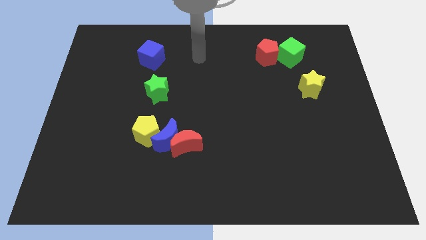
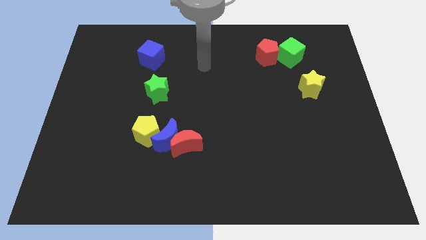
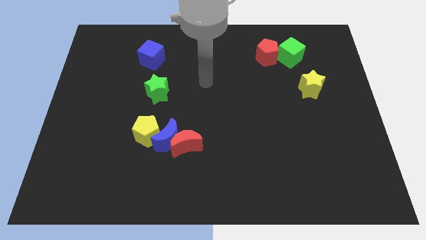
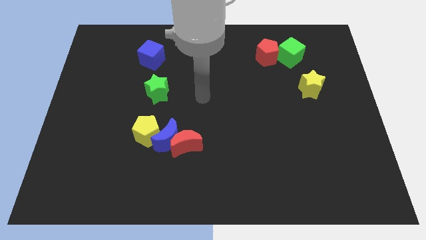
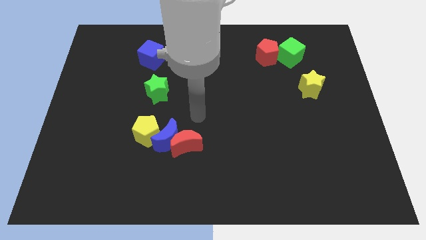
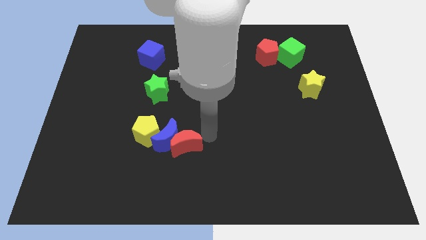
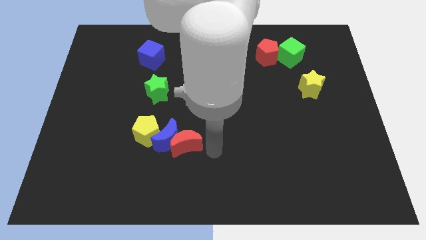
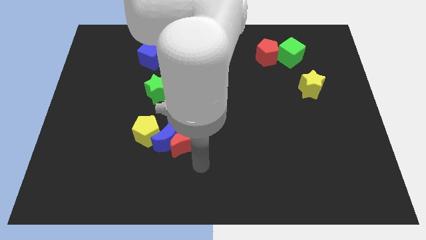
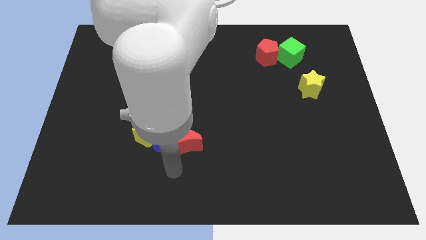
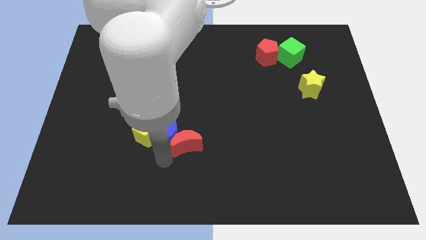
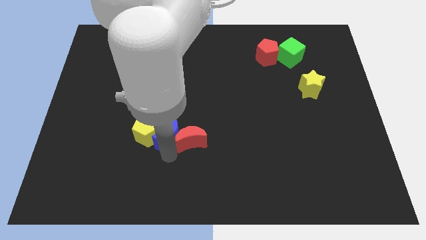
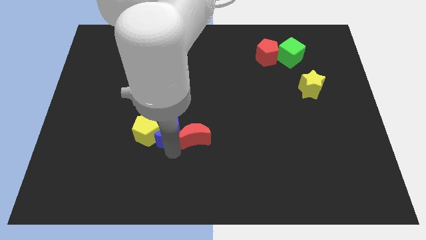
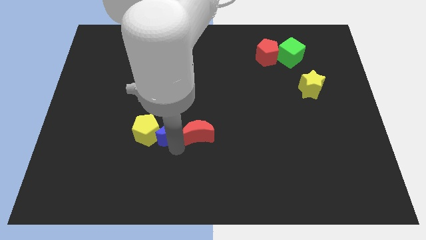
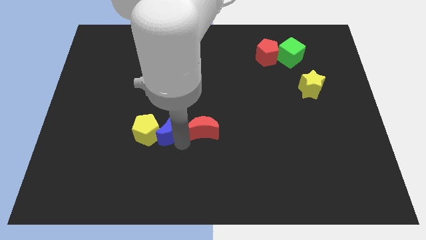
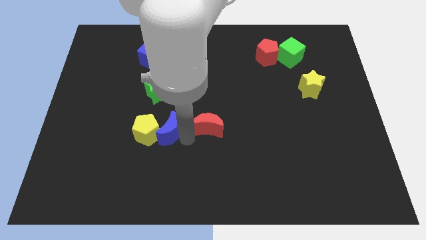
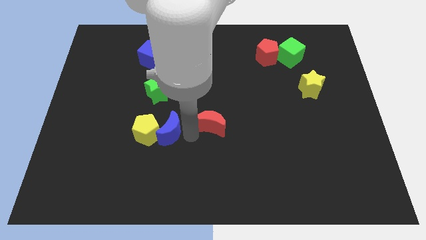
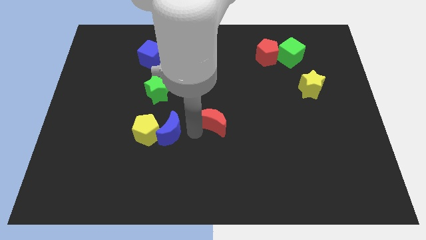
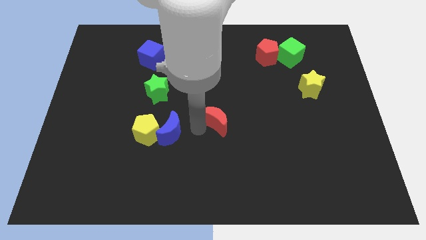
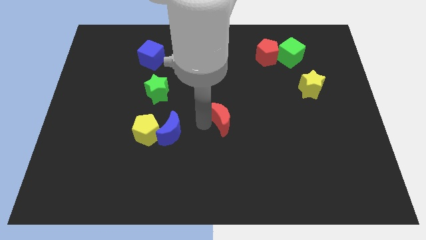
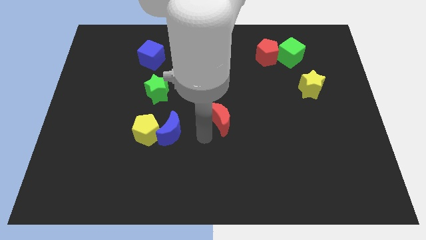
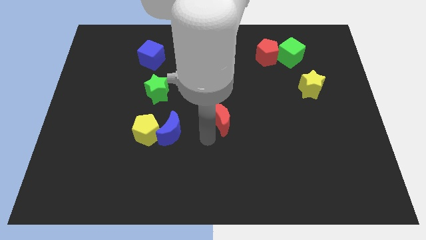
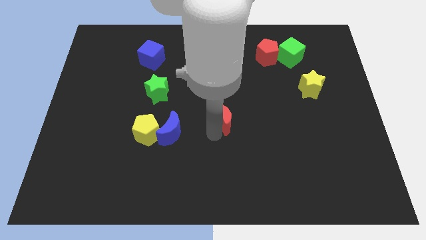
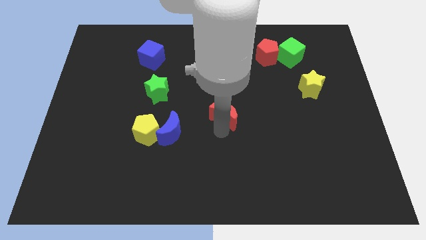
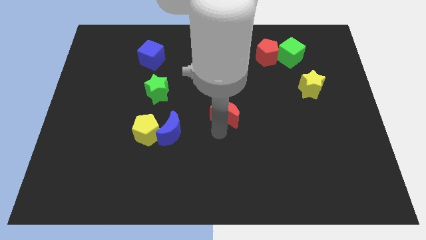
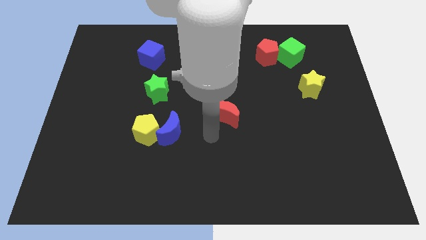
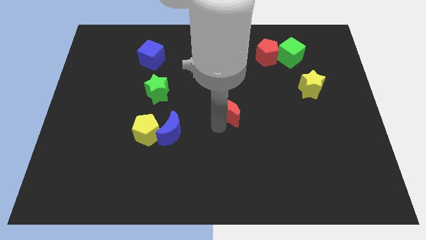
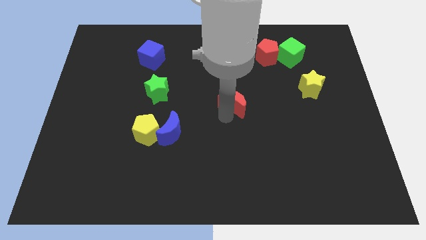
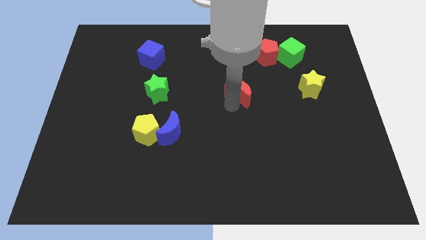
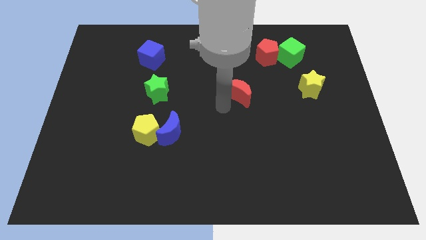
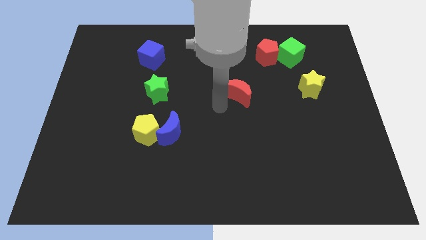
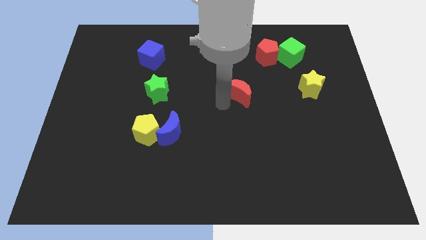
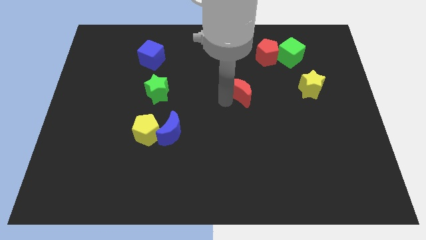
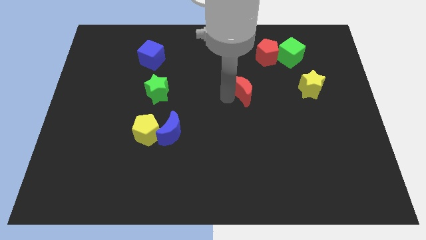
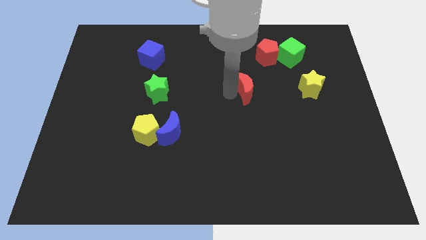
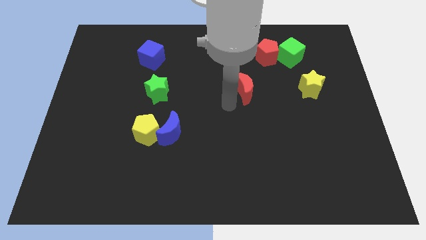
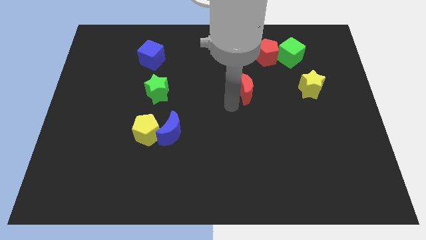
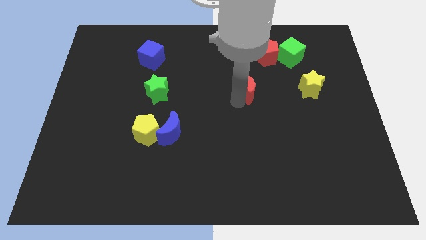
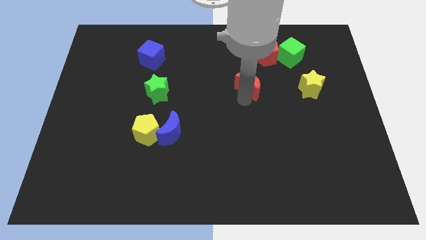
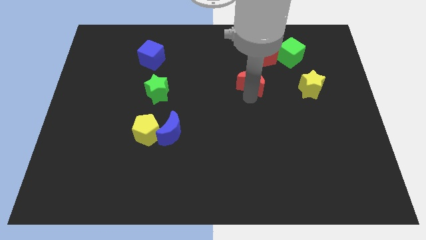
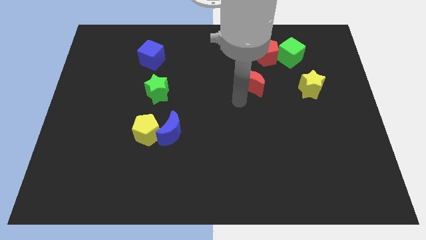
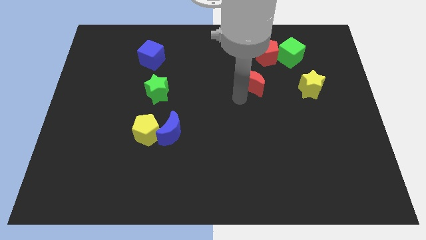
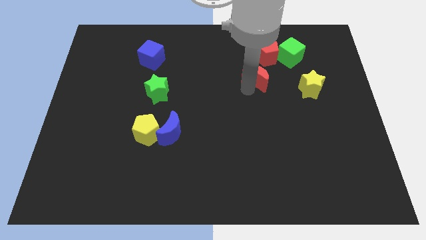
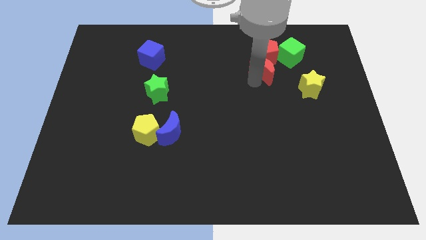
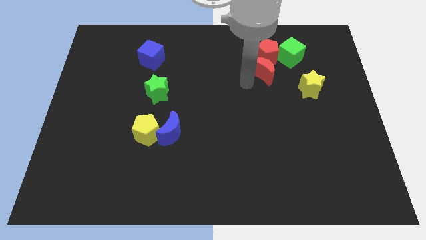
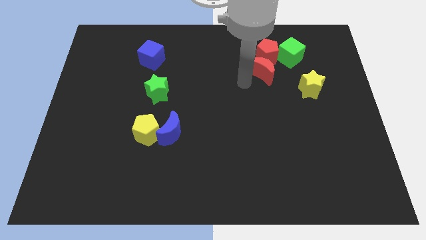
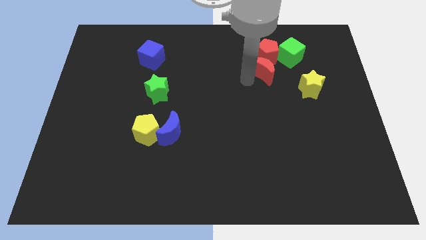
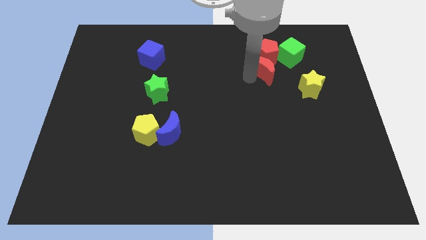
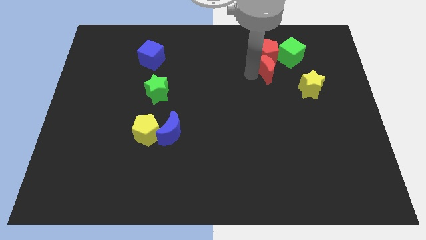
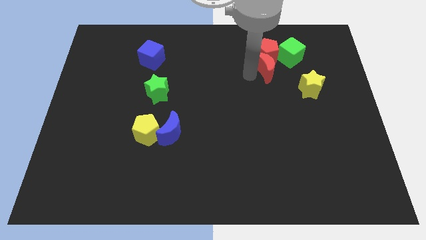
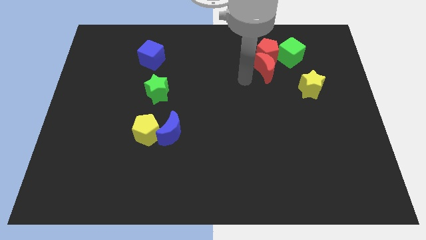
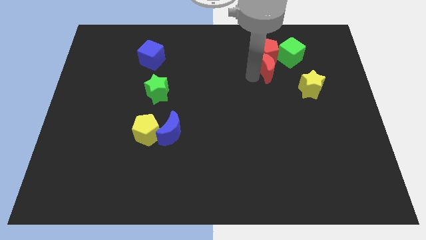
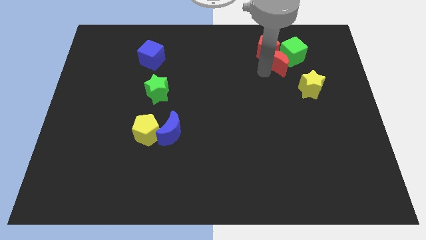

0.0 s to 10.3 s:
slide the red moon to the green cube

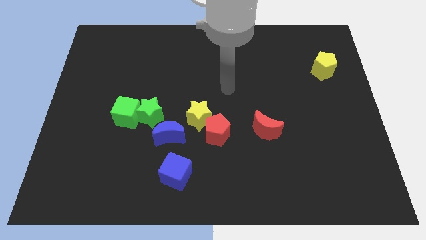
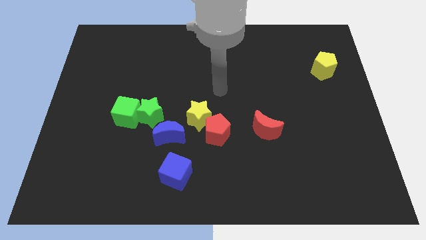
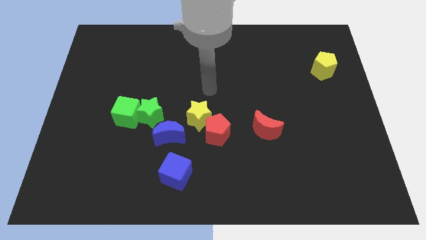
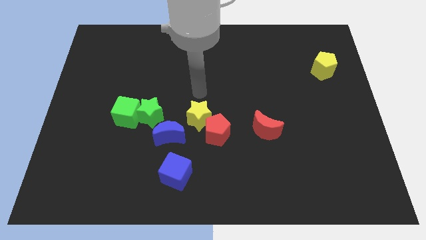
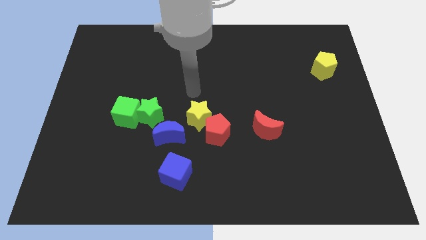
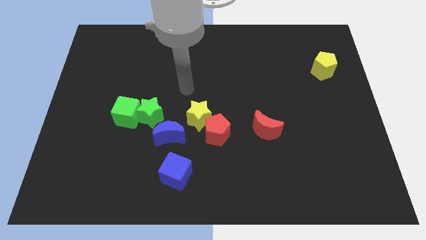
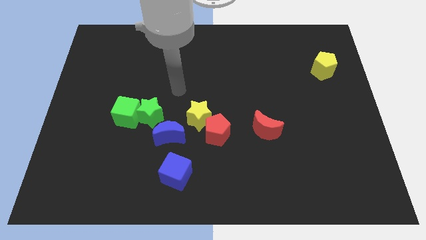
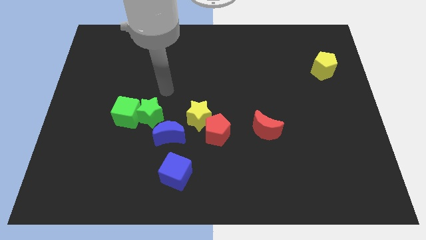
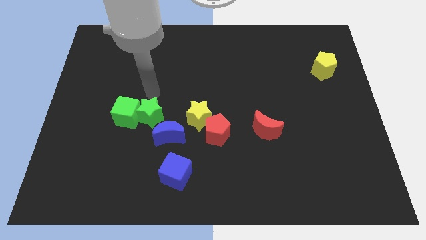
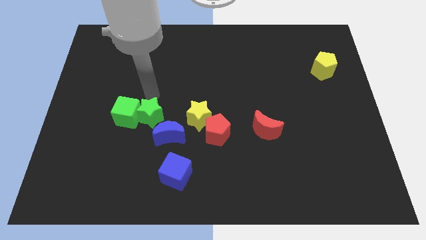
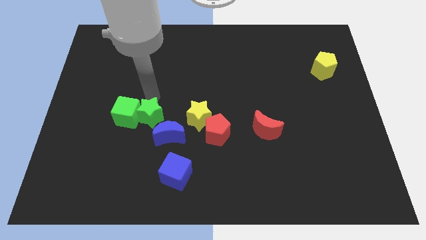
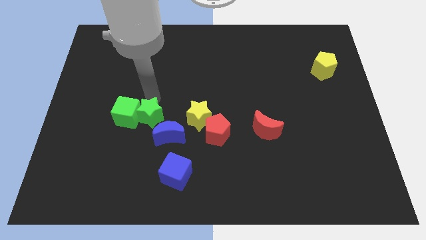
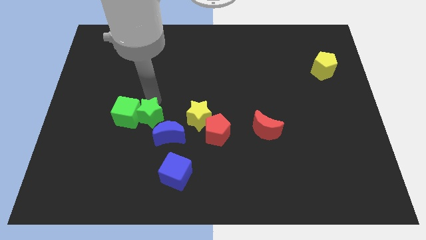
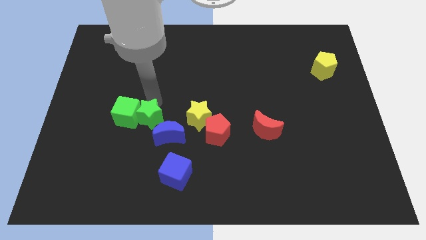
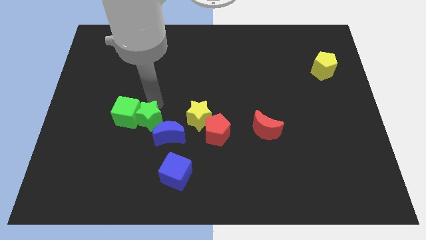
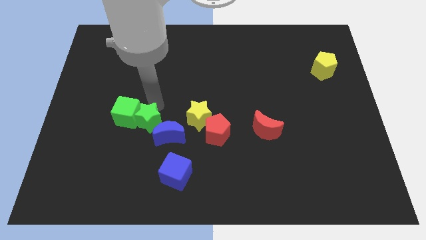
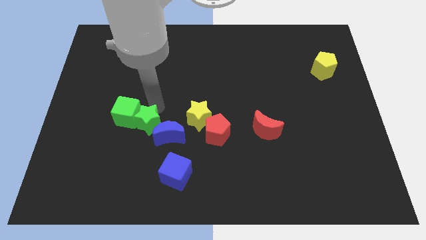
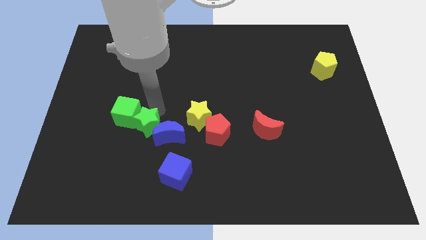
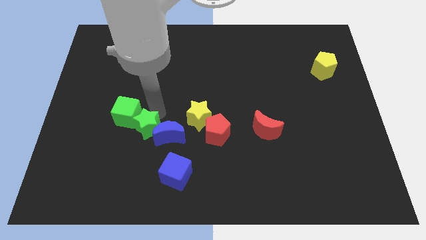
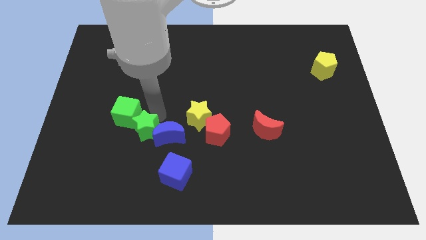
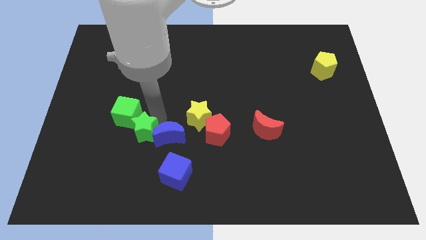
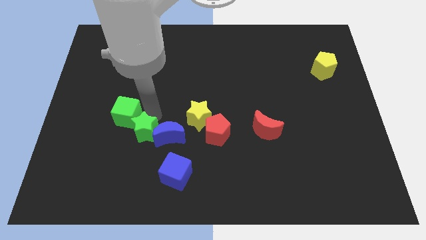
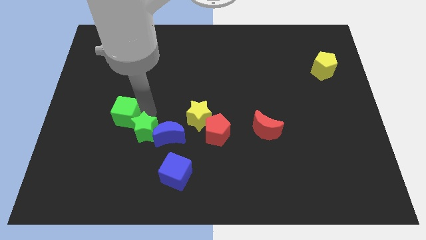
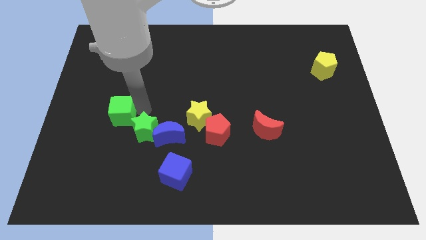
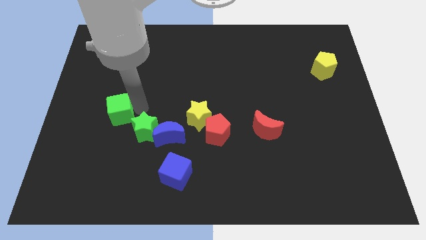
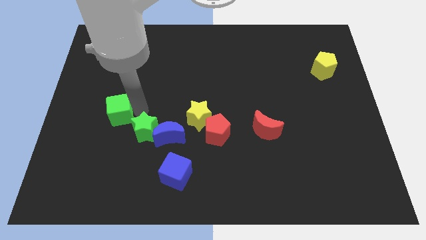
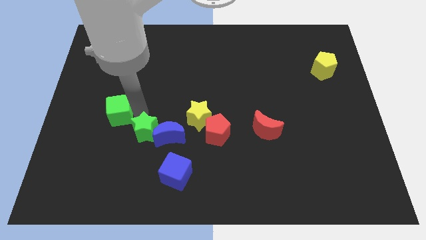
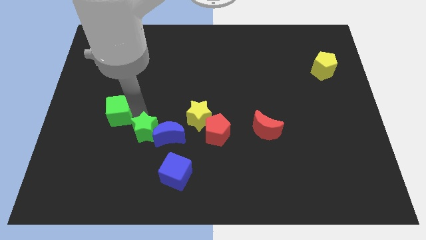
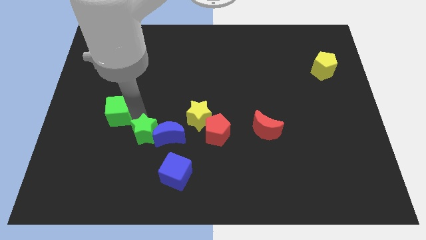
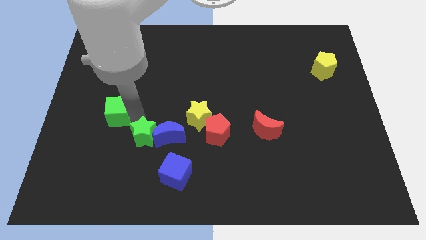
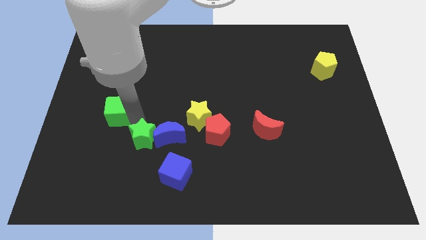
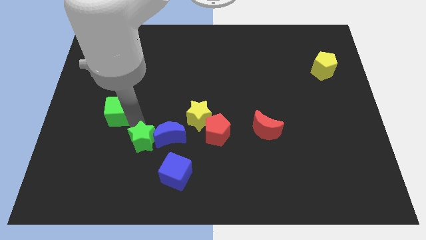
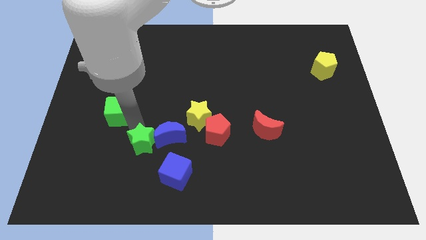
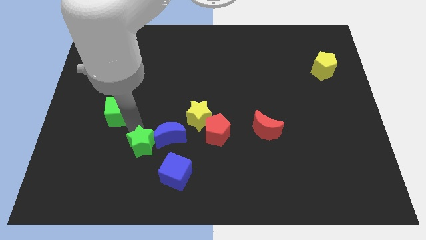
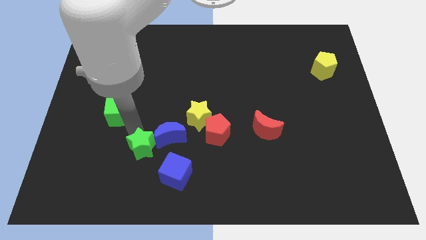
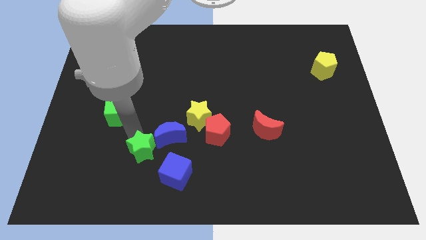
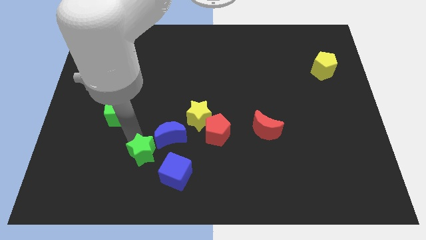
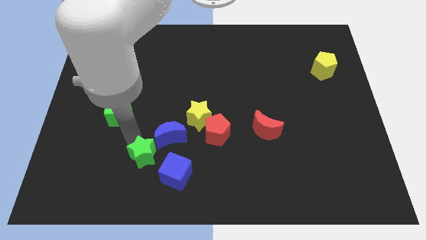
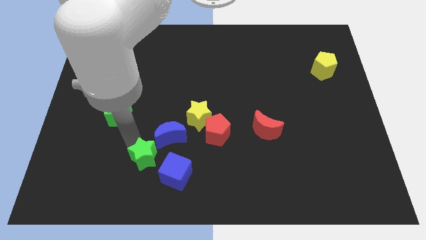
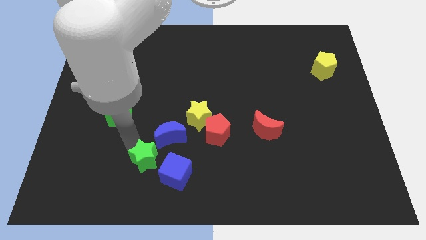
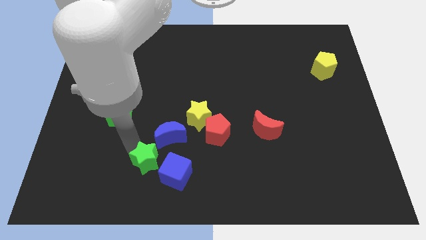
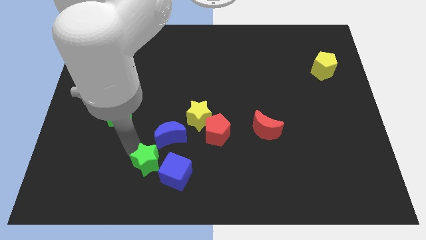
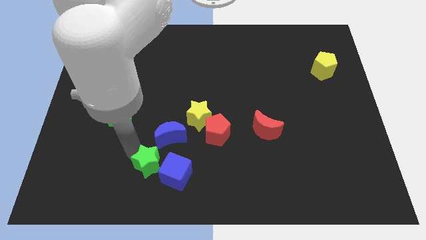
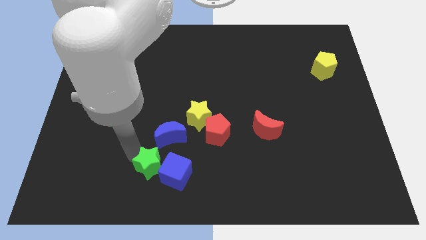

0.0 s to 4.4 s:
put the green star towards the blue cube
